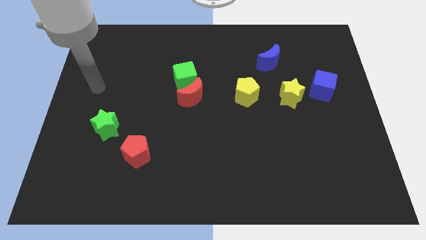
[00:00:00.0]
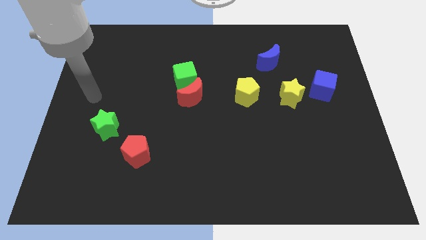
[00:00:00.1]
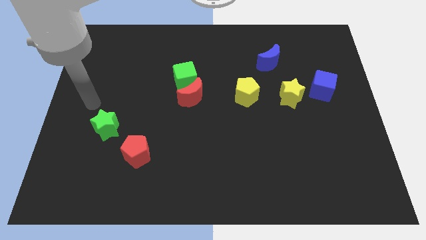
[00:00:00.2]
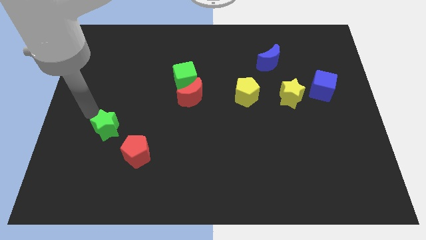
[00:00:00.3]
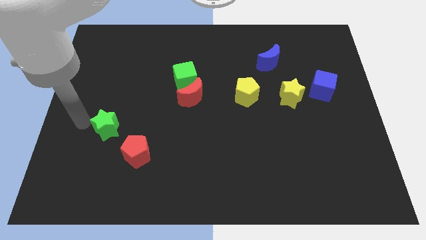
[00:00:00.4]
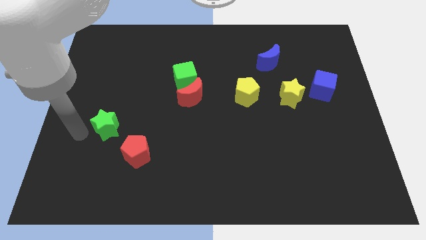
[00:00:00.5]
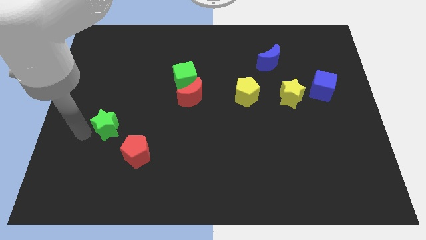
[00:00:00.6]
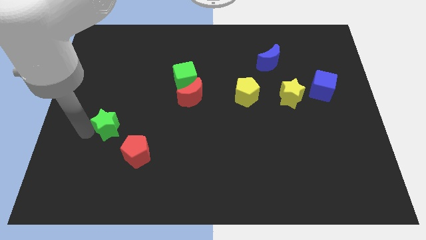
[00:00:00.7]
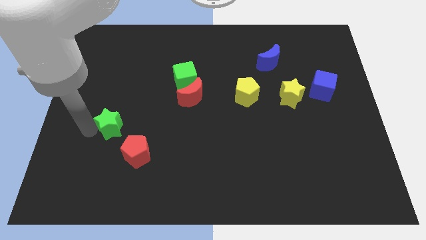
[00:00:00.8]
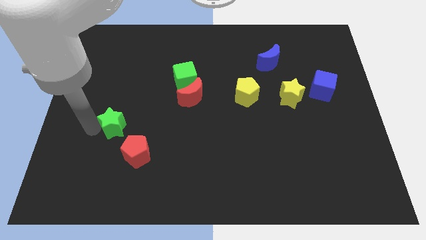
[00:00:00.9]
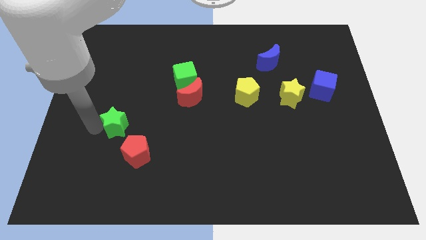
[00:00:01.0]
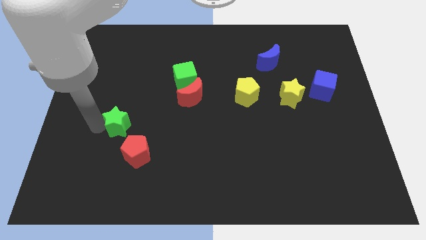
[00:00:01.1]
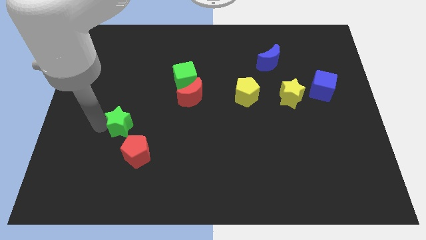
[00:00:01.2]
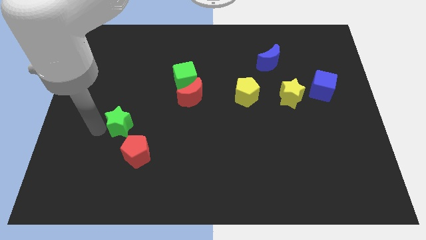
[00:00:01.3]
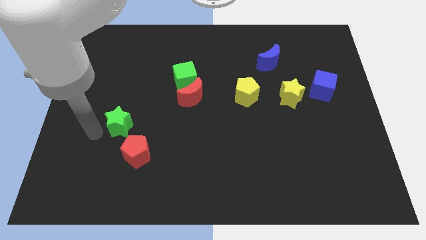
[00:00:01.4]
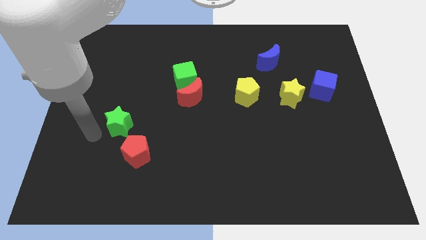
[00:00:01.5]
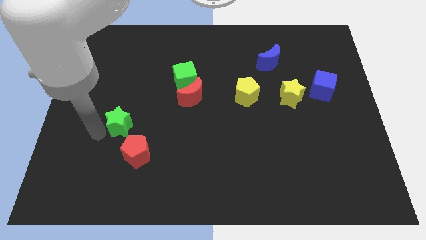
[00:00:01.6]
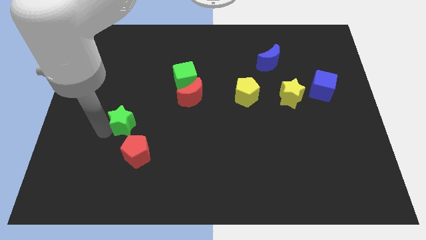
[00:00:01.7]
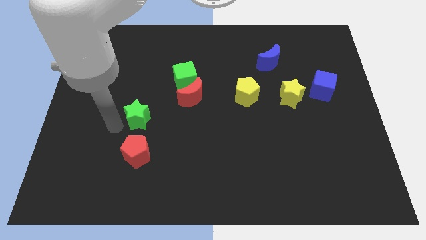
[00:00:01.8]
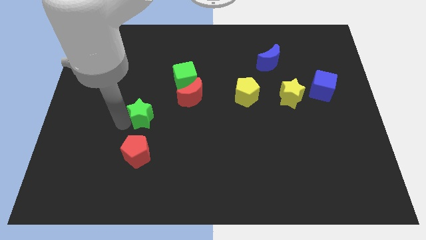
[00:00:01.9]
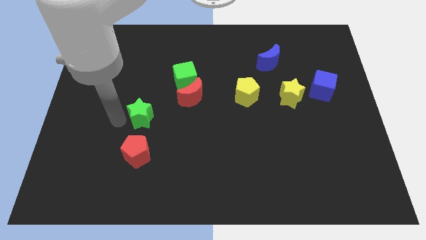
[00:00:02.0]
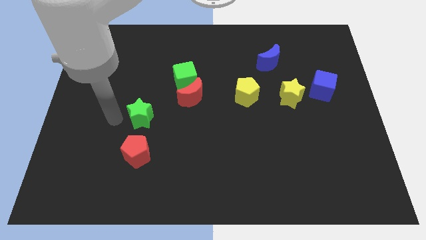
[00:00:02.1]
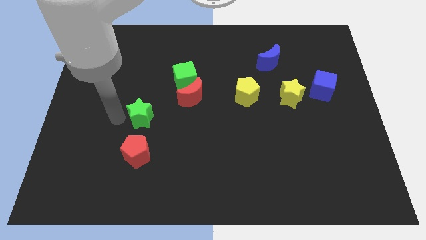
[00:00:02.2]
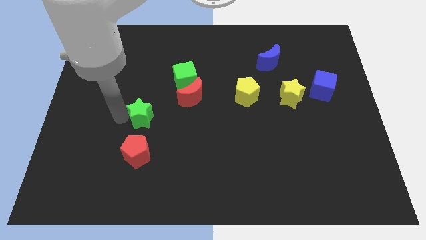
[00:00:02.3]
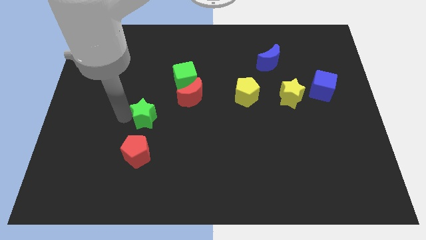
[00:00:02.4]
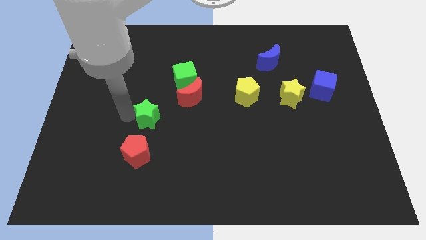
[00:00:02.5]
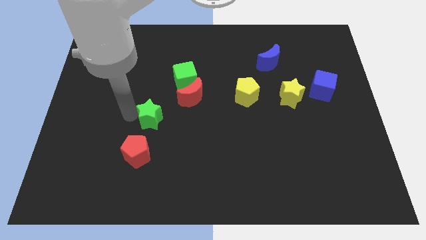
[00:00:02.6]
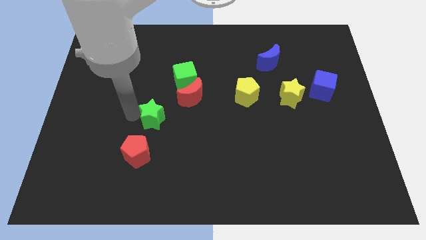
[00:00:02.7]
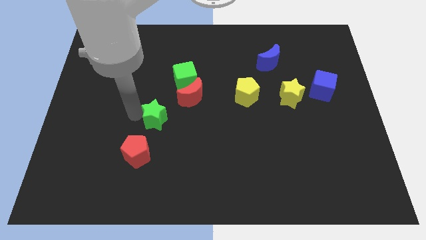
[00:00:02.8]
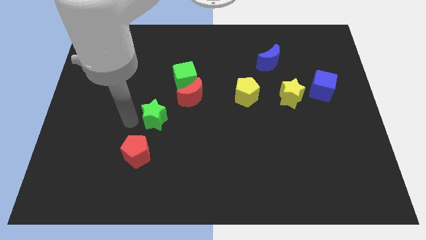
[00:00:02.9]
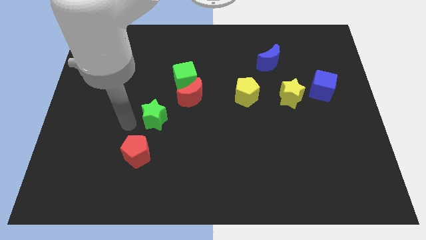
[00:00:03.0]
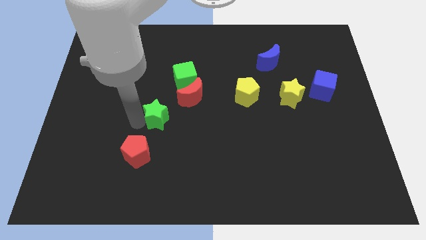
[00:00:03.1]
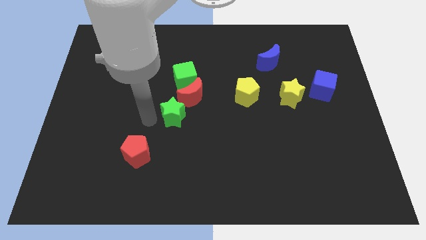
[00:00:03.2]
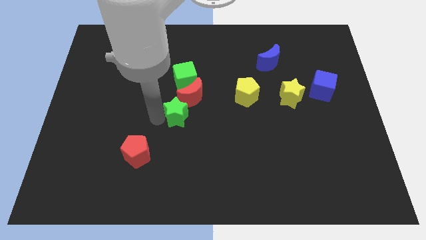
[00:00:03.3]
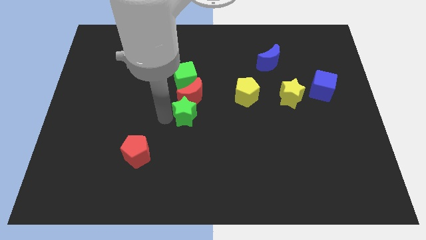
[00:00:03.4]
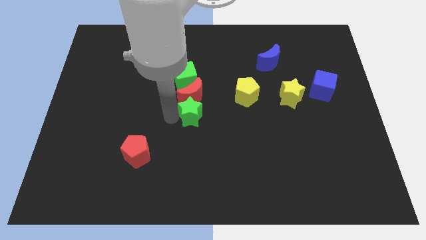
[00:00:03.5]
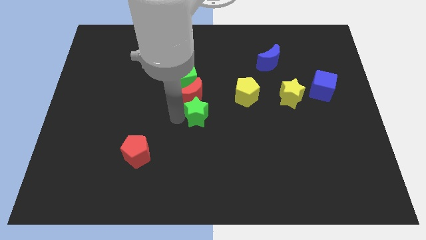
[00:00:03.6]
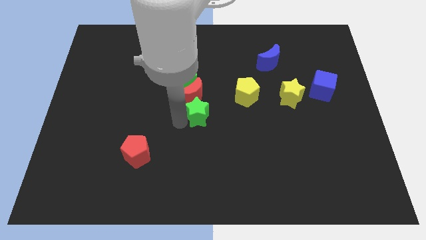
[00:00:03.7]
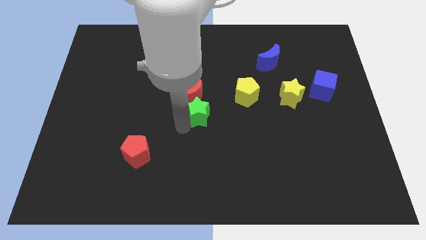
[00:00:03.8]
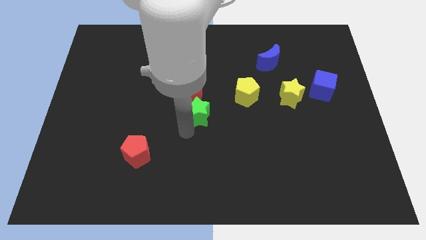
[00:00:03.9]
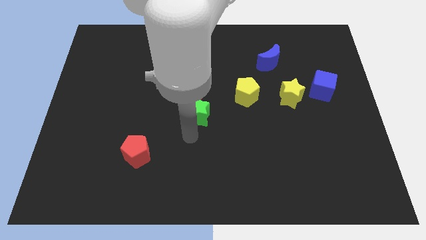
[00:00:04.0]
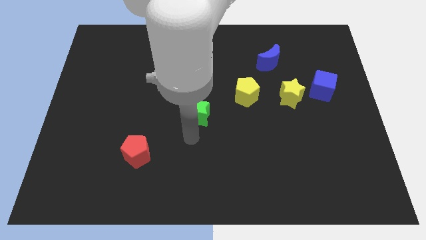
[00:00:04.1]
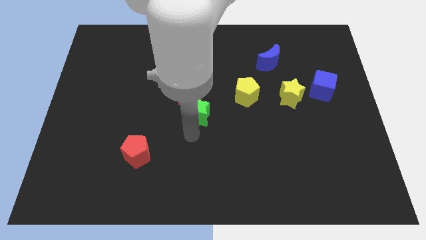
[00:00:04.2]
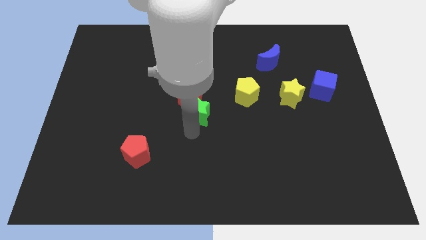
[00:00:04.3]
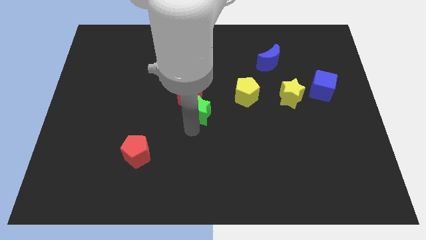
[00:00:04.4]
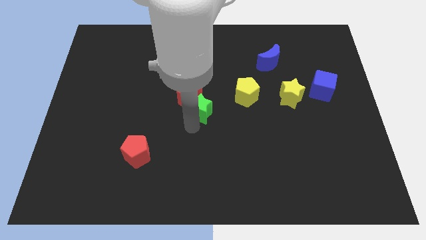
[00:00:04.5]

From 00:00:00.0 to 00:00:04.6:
put the green star to the bottom right side of the green cube

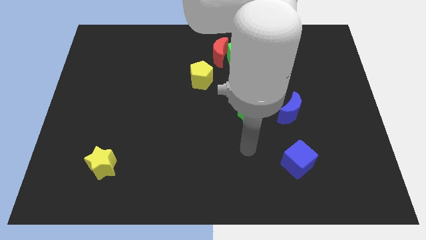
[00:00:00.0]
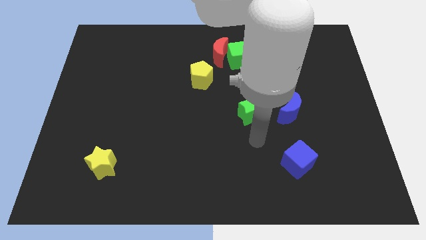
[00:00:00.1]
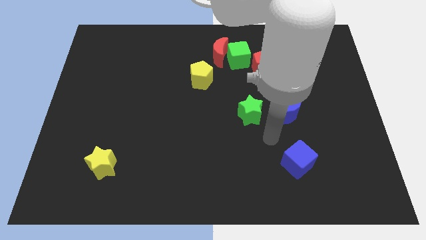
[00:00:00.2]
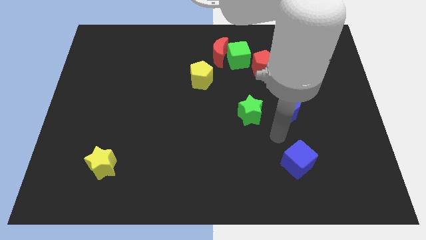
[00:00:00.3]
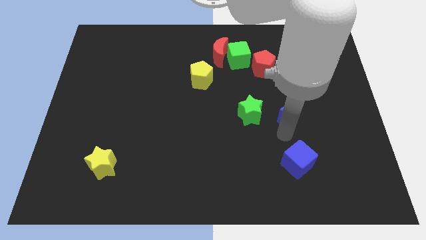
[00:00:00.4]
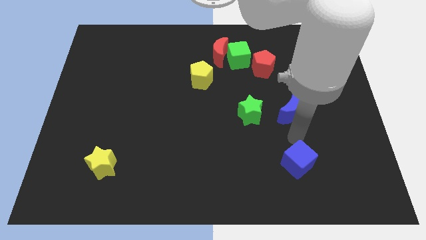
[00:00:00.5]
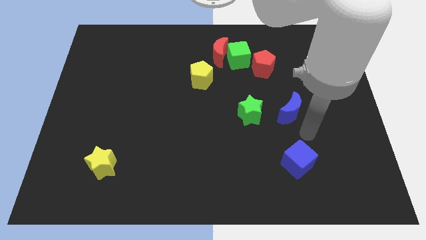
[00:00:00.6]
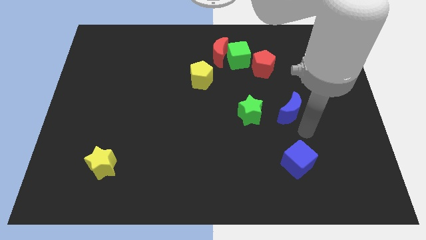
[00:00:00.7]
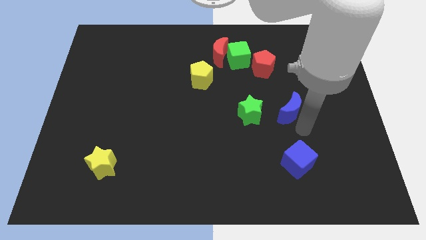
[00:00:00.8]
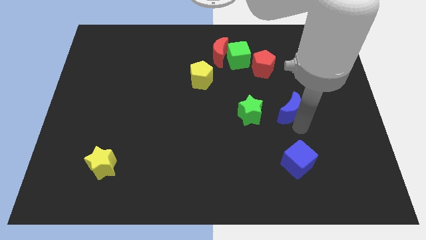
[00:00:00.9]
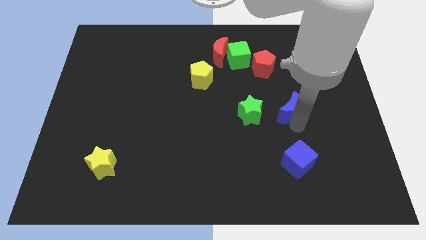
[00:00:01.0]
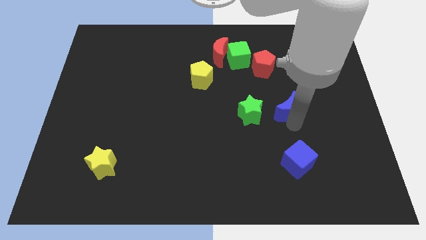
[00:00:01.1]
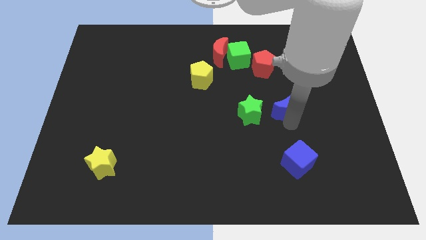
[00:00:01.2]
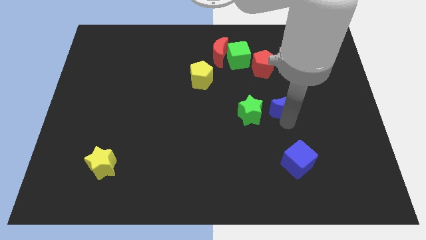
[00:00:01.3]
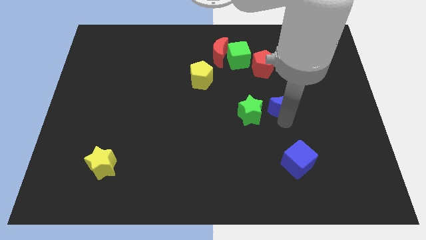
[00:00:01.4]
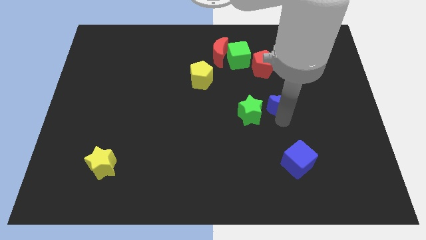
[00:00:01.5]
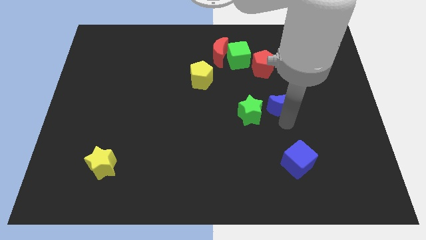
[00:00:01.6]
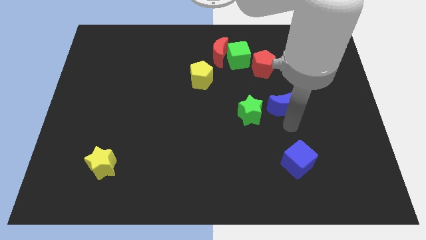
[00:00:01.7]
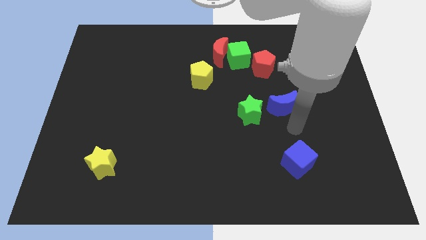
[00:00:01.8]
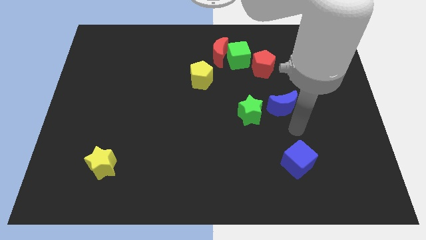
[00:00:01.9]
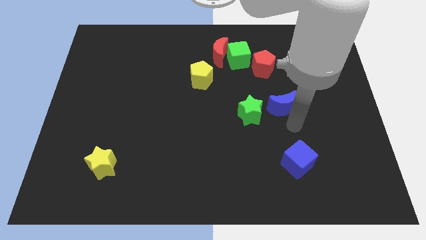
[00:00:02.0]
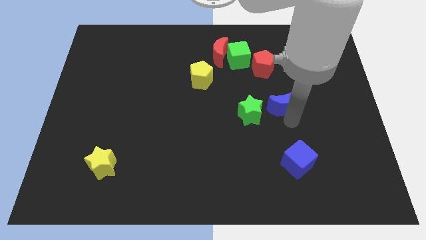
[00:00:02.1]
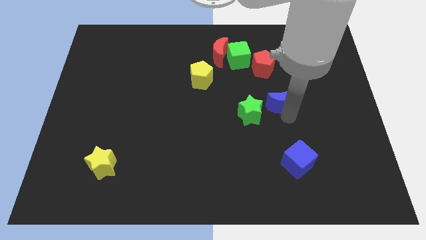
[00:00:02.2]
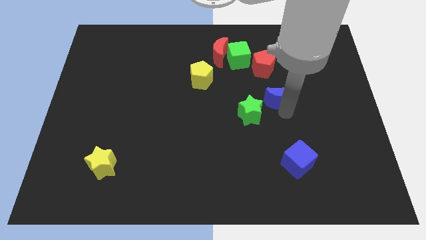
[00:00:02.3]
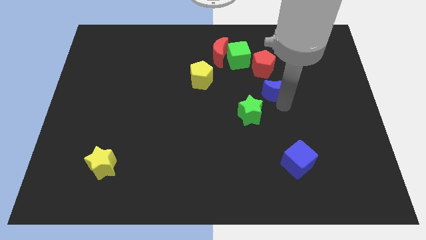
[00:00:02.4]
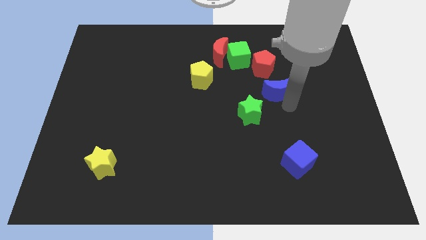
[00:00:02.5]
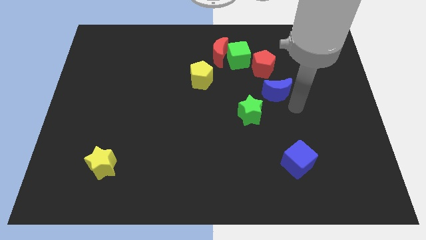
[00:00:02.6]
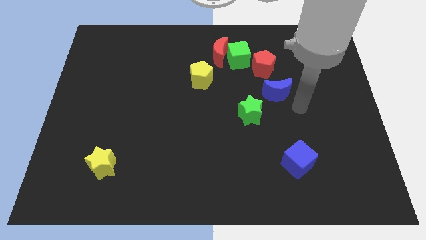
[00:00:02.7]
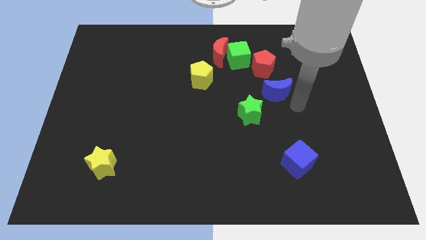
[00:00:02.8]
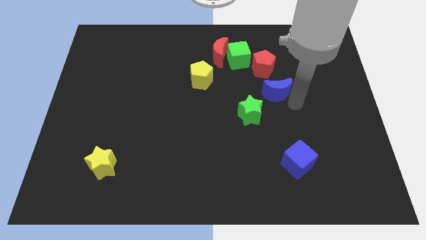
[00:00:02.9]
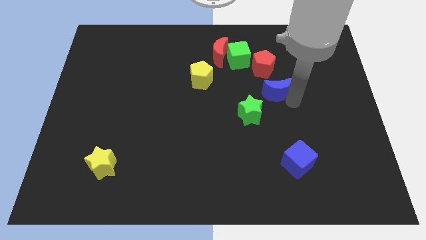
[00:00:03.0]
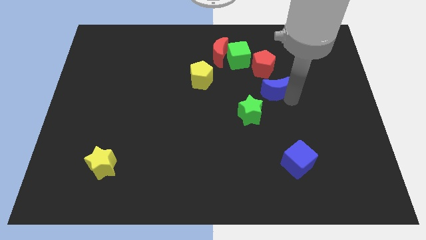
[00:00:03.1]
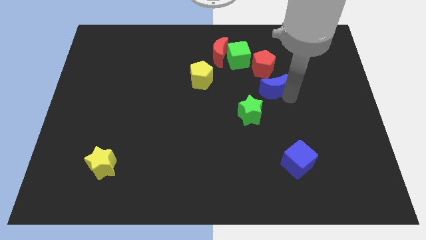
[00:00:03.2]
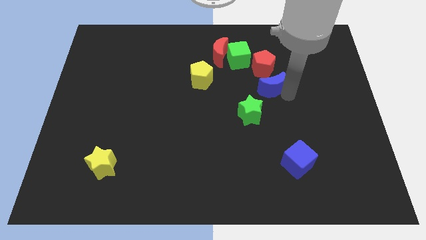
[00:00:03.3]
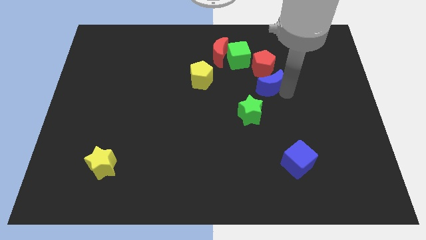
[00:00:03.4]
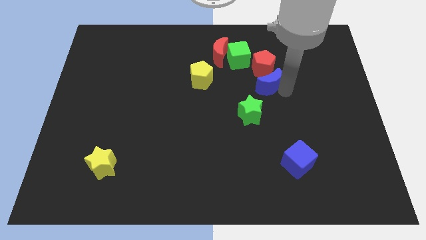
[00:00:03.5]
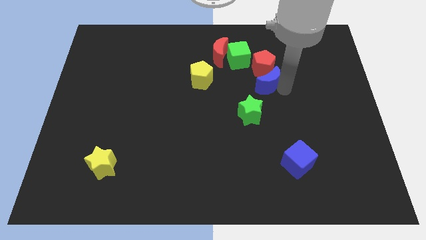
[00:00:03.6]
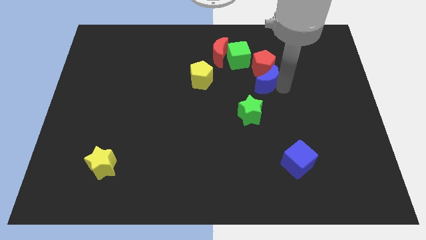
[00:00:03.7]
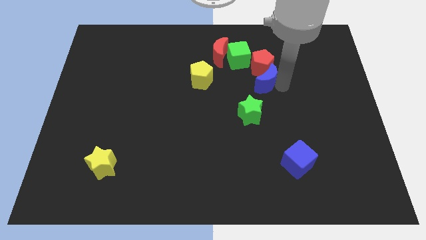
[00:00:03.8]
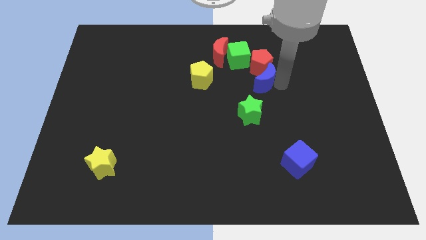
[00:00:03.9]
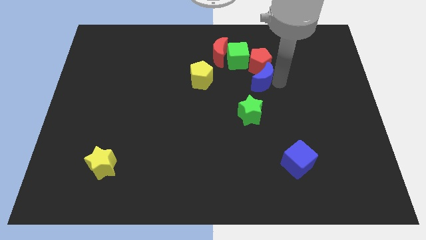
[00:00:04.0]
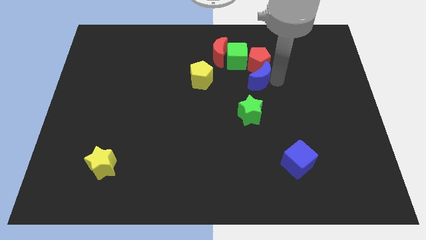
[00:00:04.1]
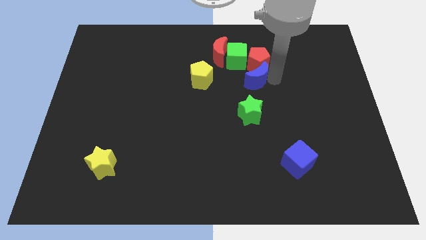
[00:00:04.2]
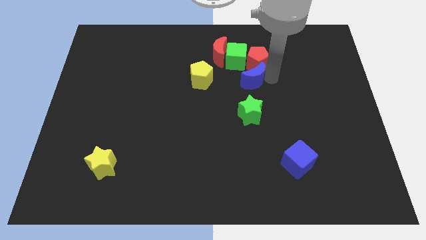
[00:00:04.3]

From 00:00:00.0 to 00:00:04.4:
push the blue moon diagonally down and to the right of the red moon
